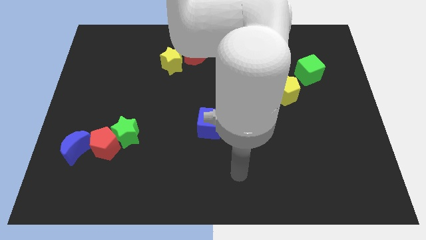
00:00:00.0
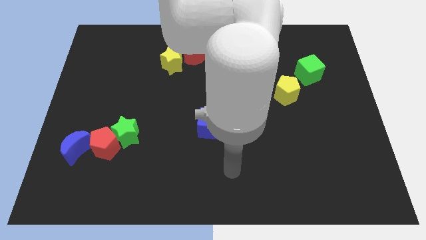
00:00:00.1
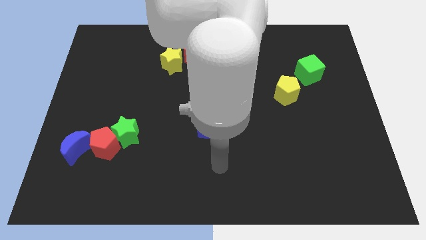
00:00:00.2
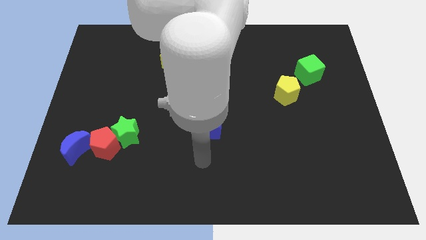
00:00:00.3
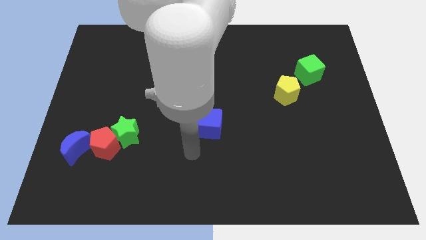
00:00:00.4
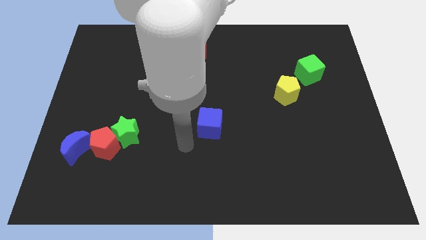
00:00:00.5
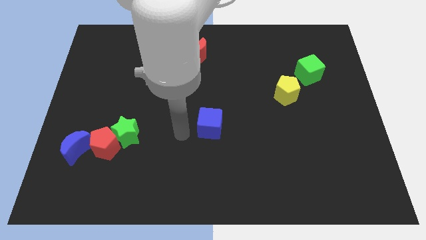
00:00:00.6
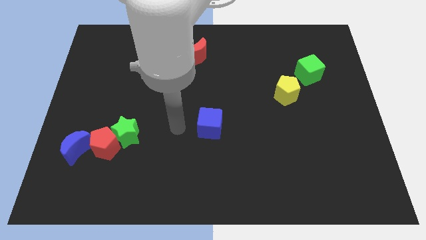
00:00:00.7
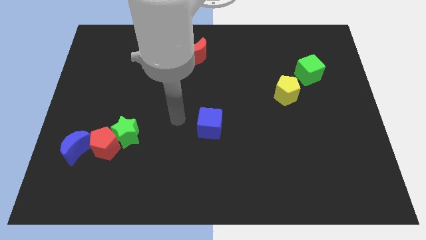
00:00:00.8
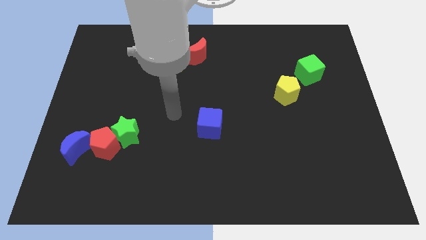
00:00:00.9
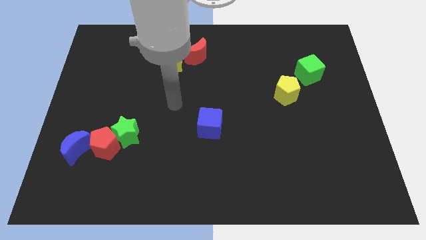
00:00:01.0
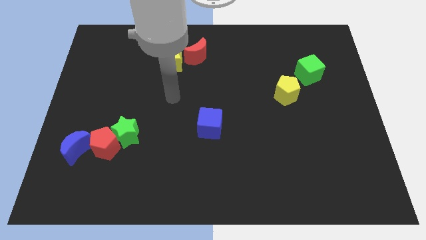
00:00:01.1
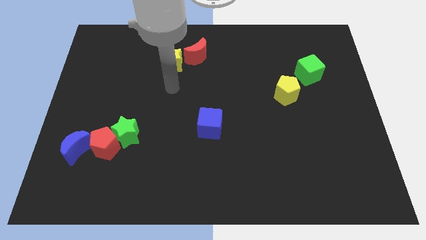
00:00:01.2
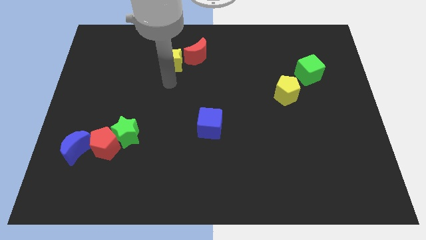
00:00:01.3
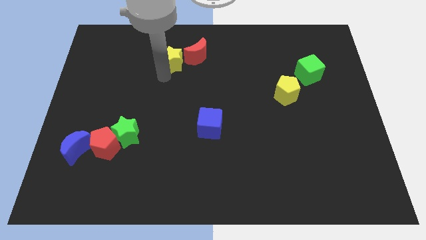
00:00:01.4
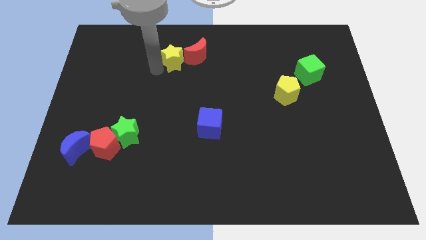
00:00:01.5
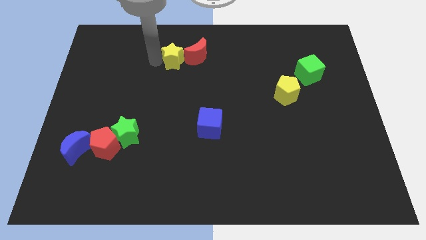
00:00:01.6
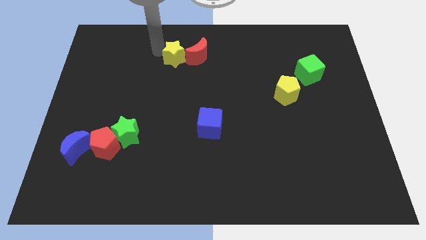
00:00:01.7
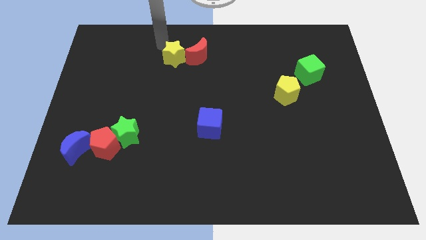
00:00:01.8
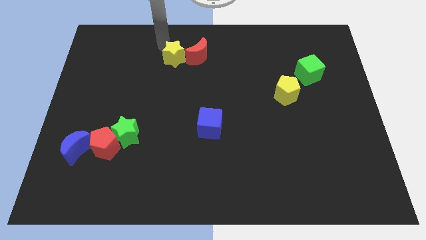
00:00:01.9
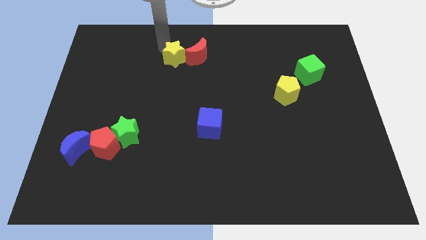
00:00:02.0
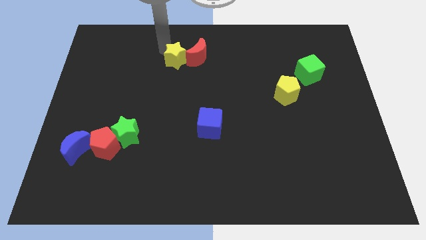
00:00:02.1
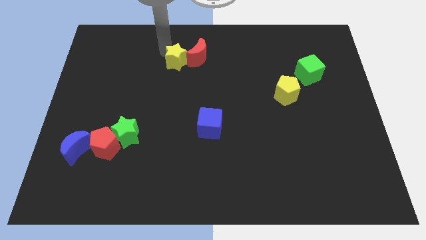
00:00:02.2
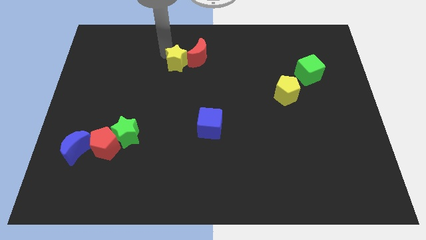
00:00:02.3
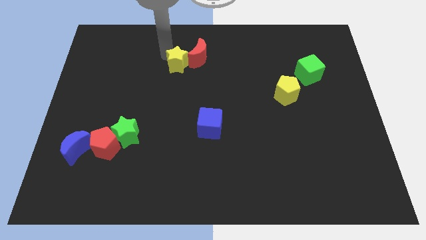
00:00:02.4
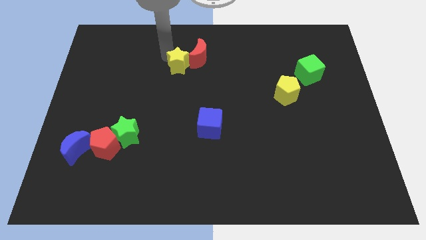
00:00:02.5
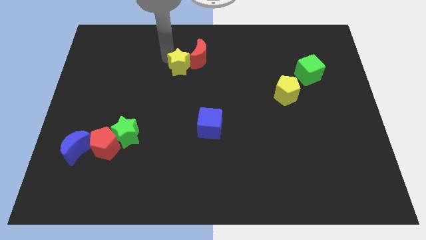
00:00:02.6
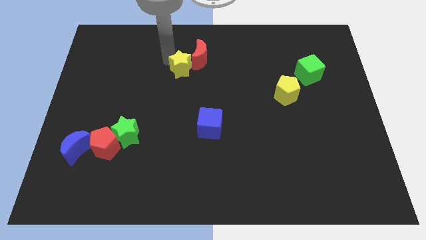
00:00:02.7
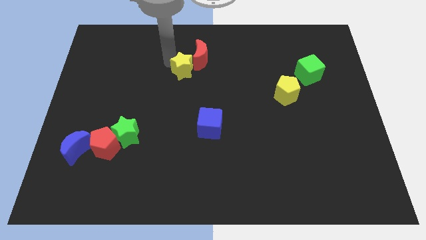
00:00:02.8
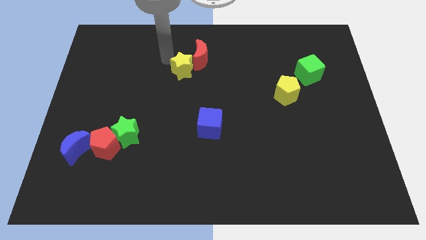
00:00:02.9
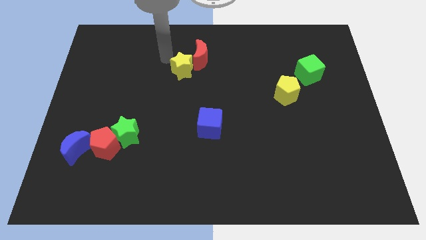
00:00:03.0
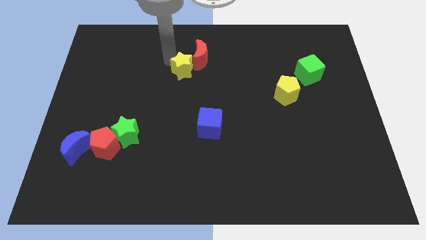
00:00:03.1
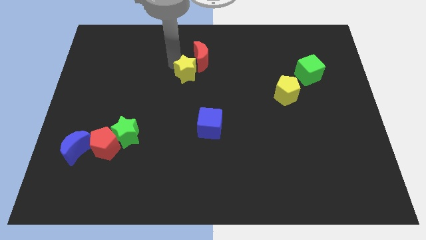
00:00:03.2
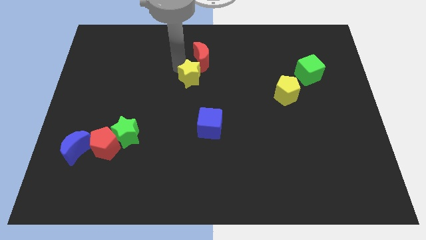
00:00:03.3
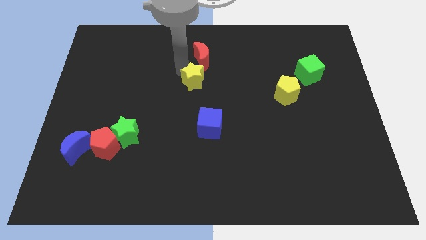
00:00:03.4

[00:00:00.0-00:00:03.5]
push the yellow star a little down and then right

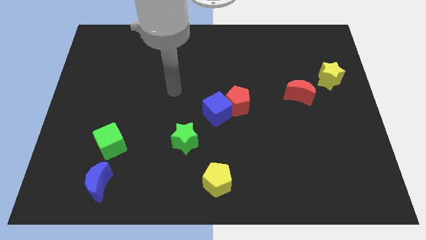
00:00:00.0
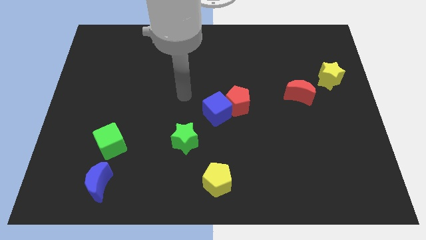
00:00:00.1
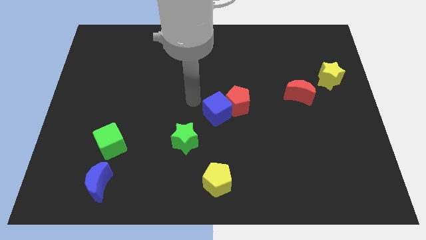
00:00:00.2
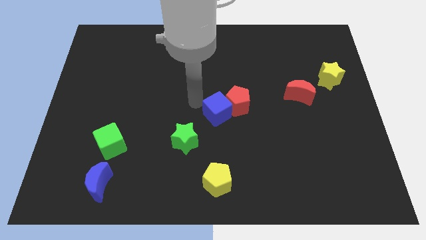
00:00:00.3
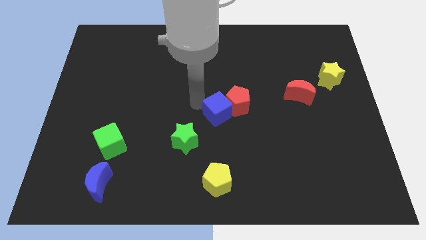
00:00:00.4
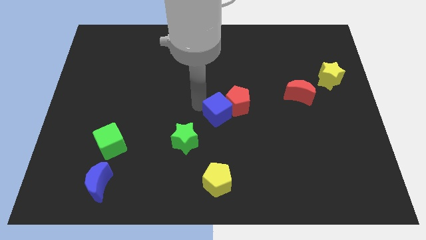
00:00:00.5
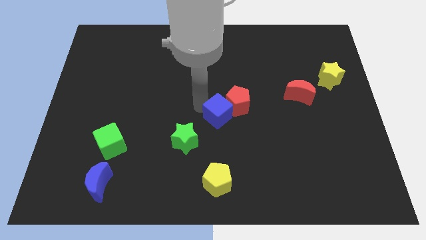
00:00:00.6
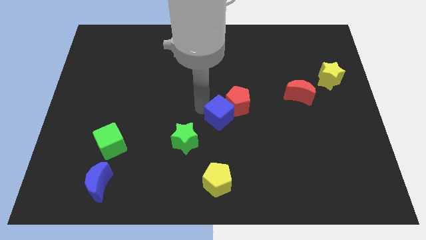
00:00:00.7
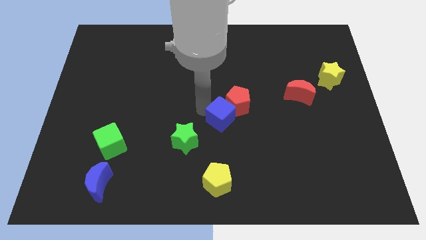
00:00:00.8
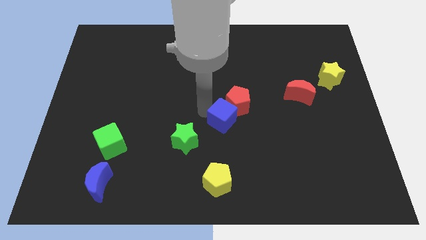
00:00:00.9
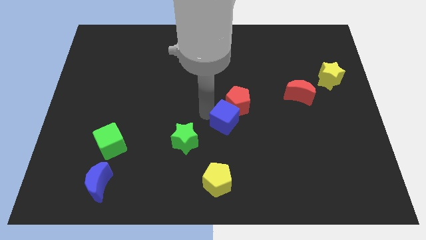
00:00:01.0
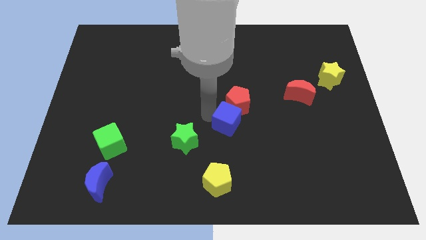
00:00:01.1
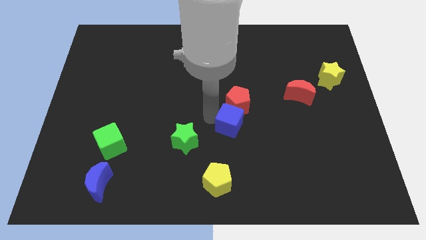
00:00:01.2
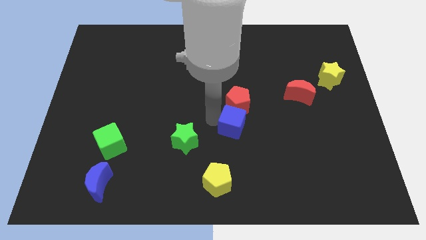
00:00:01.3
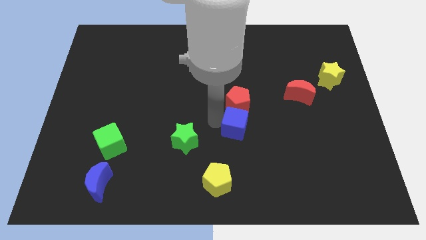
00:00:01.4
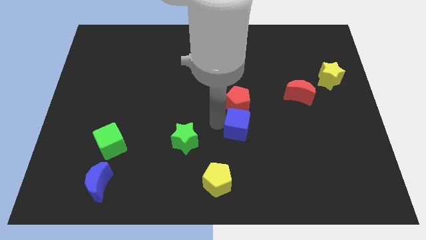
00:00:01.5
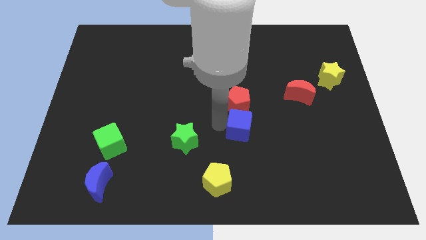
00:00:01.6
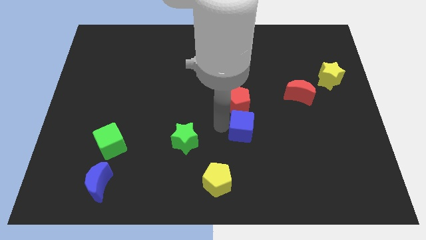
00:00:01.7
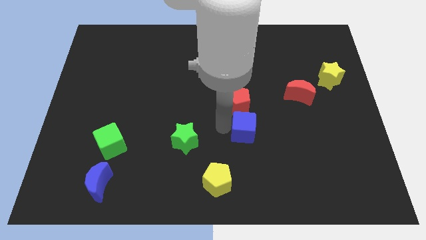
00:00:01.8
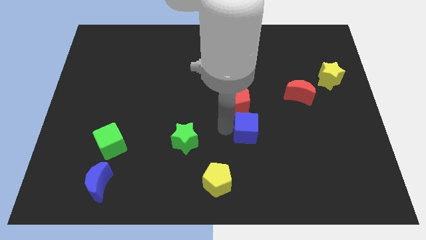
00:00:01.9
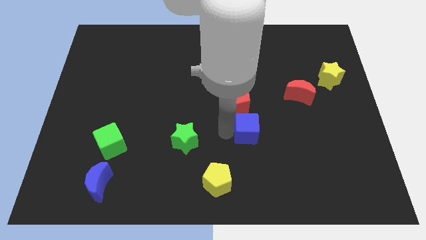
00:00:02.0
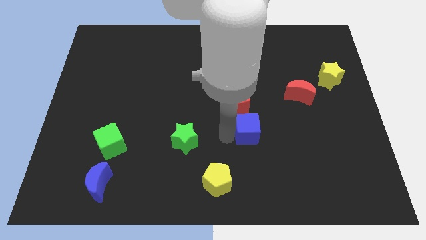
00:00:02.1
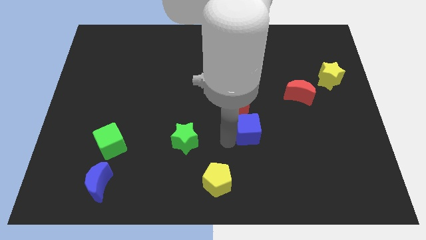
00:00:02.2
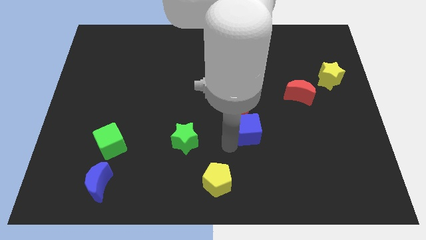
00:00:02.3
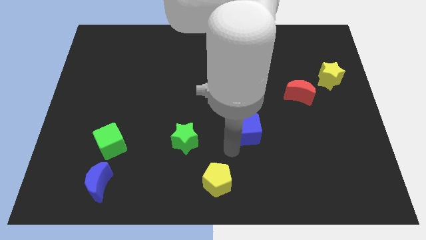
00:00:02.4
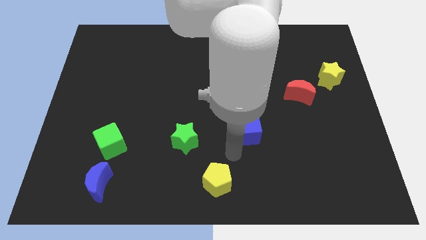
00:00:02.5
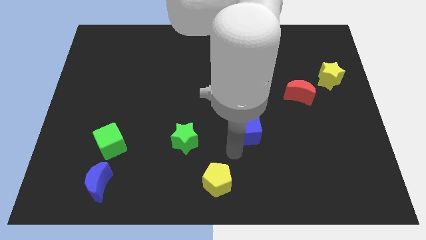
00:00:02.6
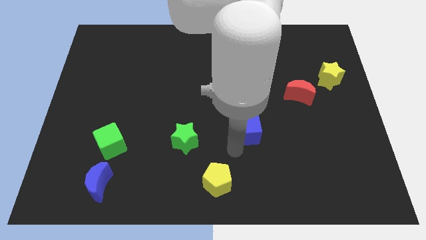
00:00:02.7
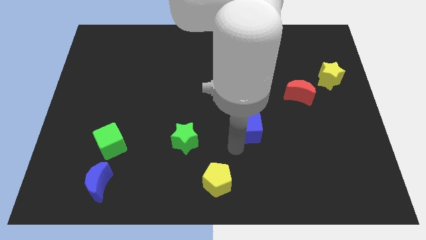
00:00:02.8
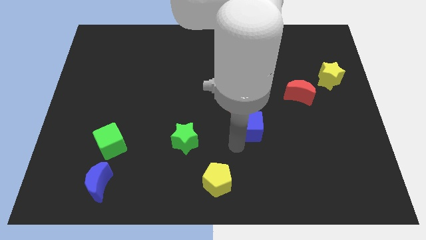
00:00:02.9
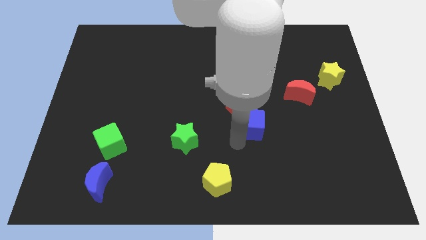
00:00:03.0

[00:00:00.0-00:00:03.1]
slightly slide the blue cube to the right

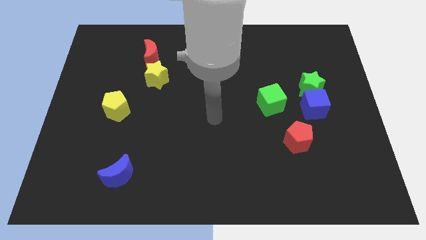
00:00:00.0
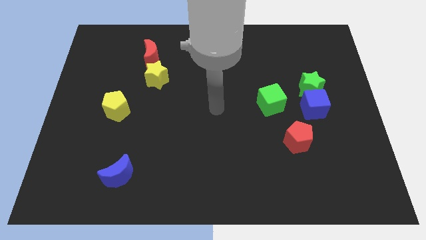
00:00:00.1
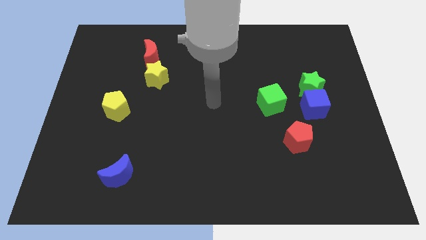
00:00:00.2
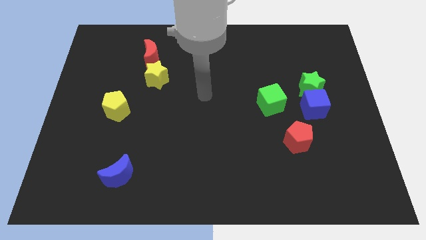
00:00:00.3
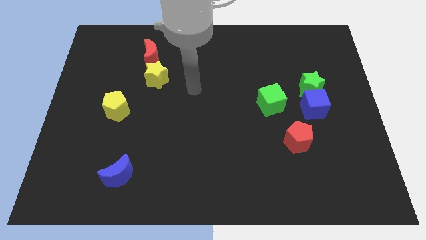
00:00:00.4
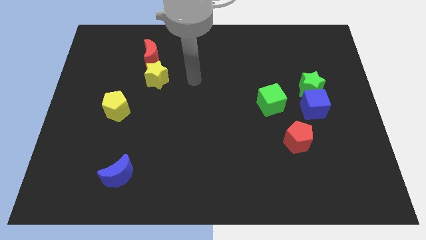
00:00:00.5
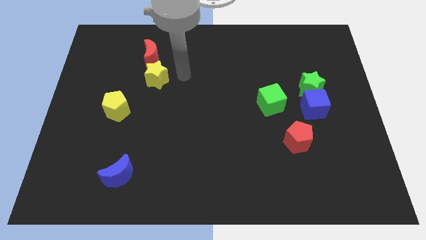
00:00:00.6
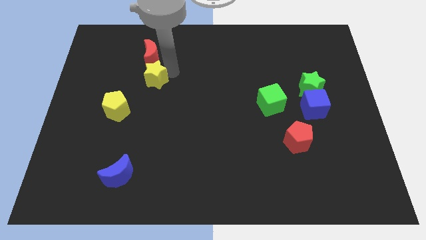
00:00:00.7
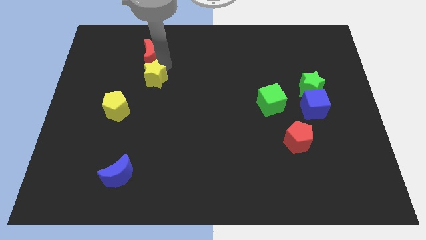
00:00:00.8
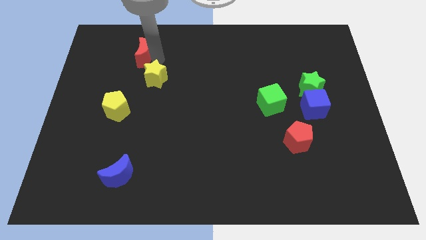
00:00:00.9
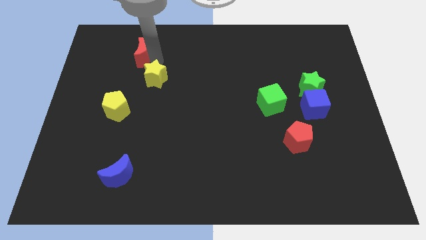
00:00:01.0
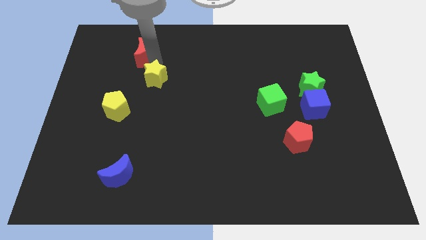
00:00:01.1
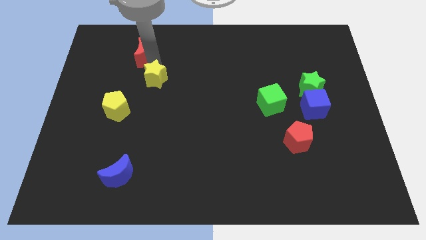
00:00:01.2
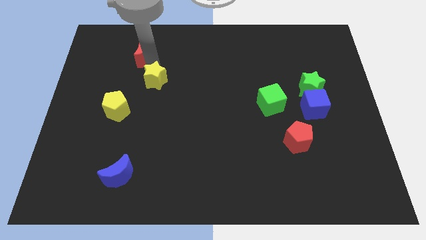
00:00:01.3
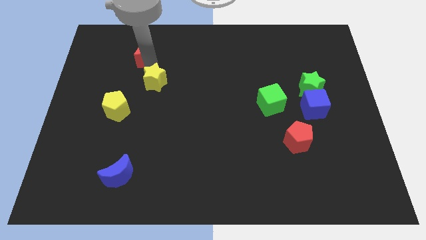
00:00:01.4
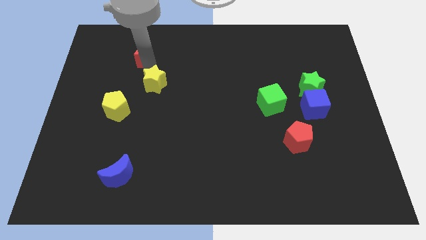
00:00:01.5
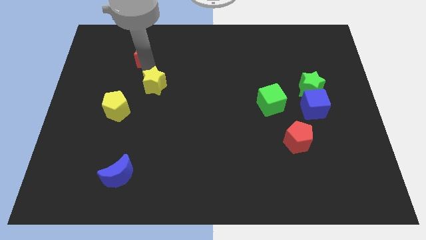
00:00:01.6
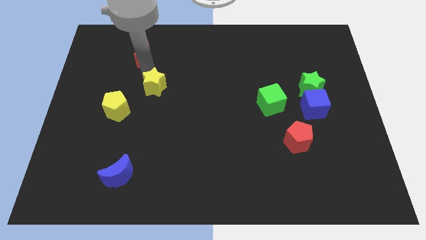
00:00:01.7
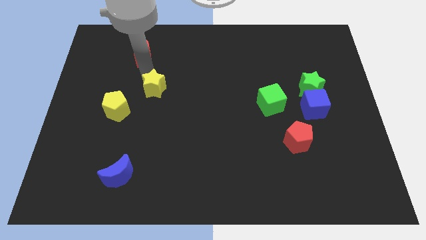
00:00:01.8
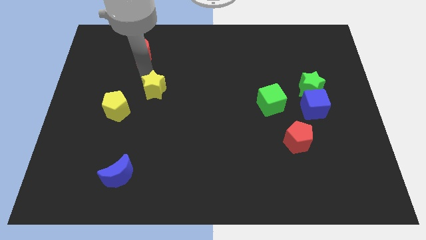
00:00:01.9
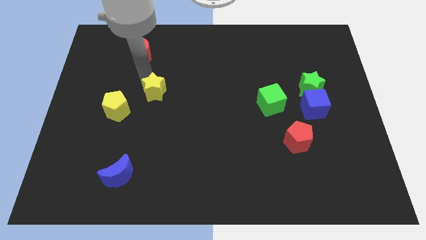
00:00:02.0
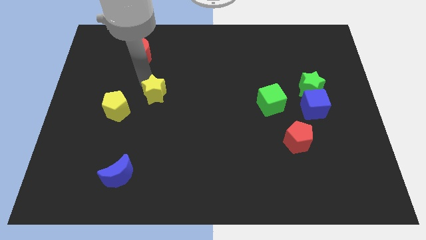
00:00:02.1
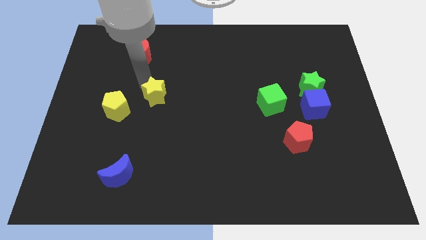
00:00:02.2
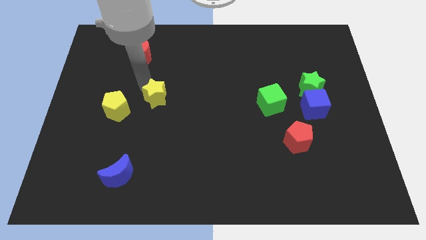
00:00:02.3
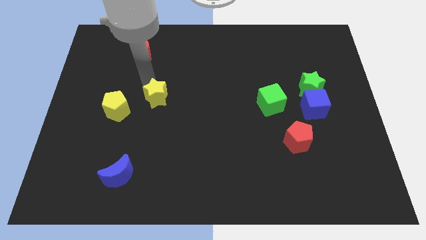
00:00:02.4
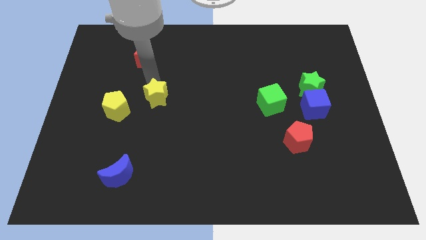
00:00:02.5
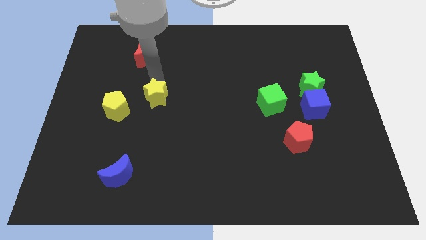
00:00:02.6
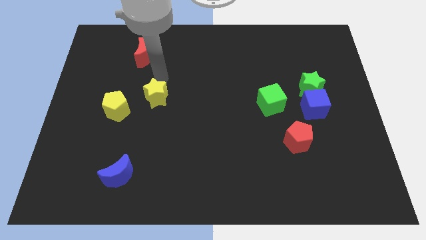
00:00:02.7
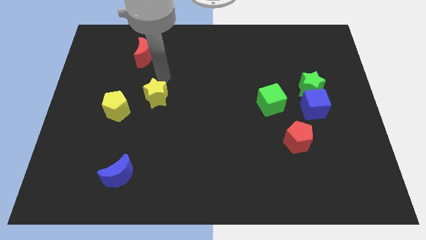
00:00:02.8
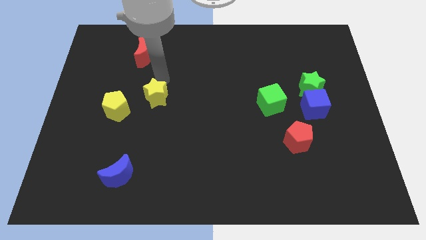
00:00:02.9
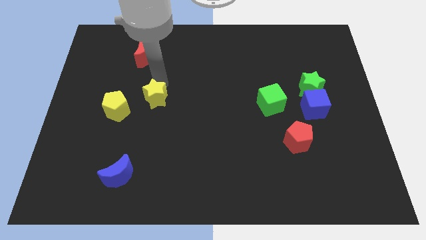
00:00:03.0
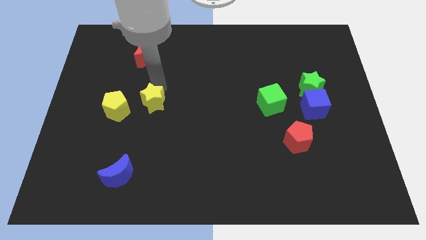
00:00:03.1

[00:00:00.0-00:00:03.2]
push the yellow star down a bit
